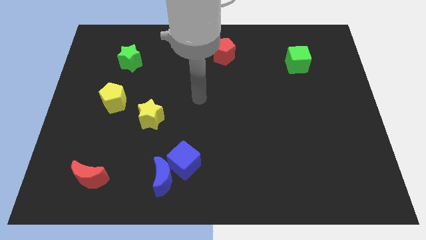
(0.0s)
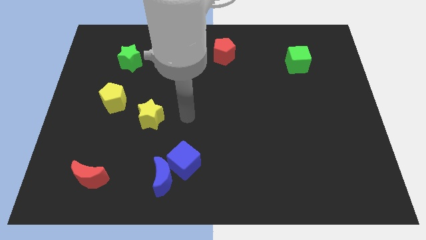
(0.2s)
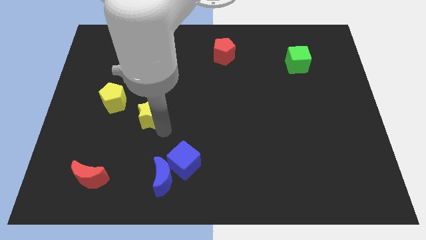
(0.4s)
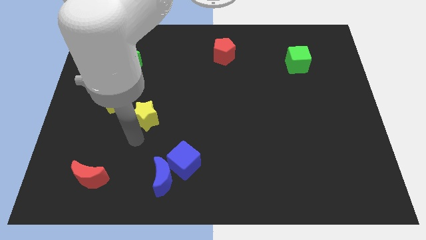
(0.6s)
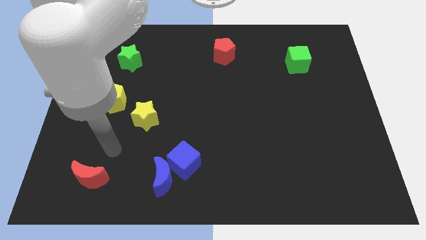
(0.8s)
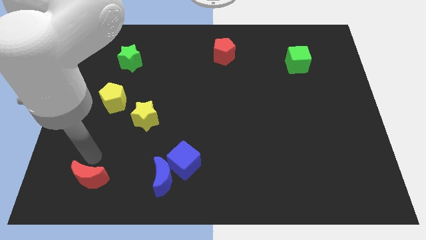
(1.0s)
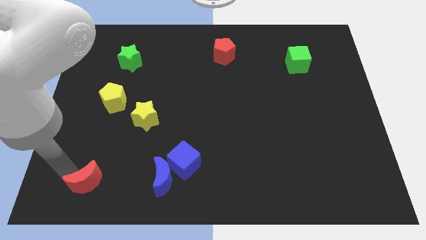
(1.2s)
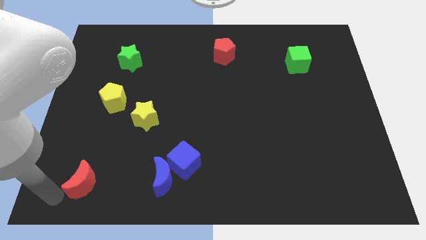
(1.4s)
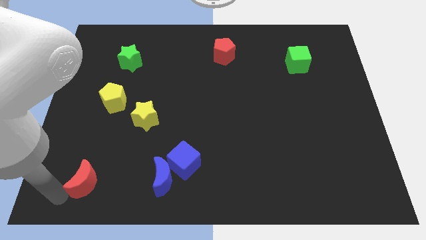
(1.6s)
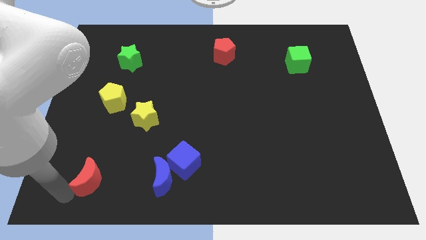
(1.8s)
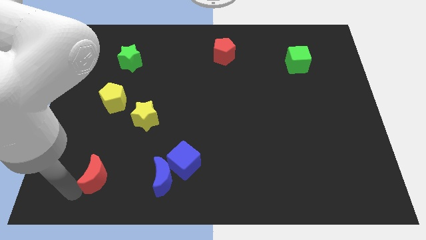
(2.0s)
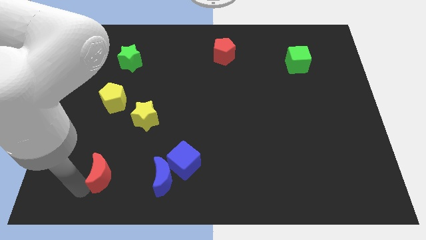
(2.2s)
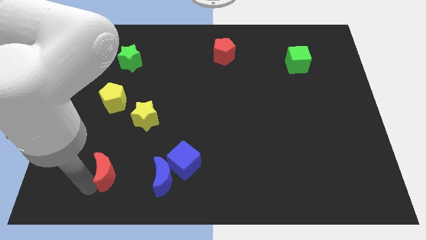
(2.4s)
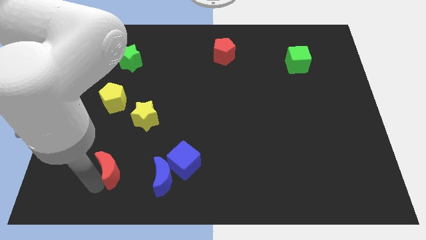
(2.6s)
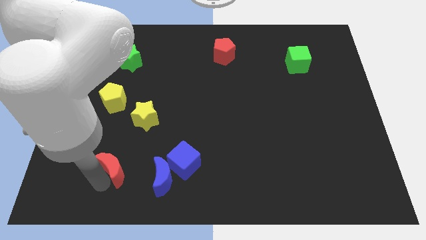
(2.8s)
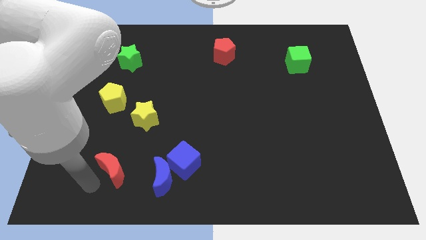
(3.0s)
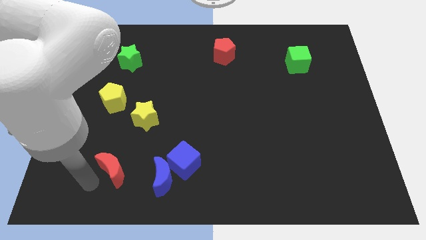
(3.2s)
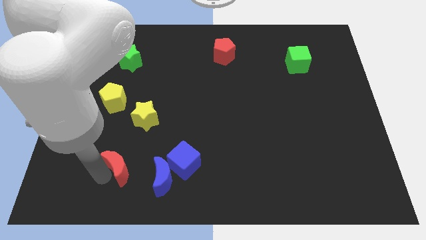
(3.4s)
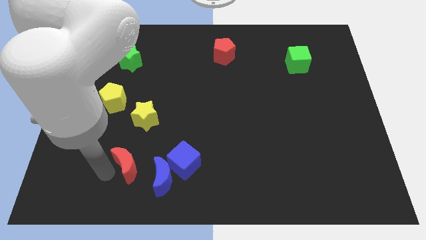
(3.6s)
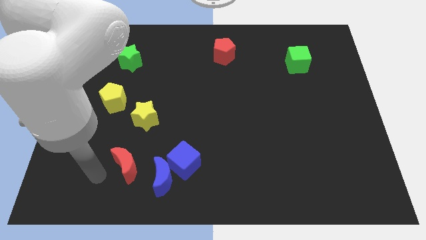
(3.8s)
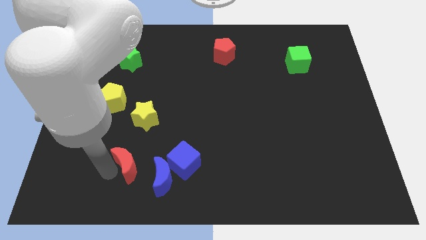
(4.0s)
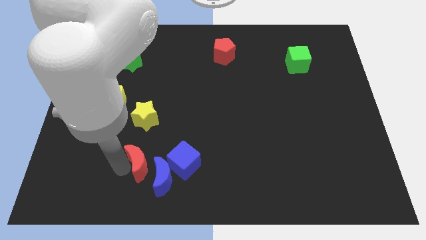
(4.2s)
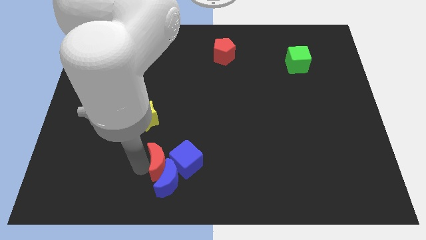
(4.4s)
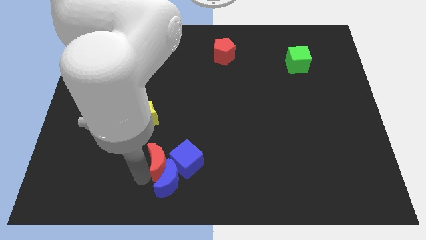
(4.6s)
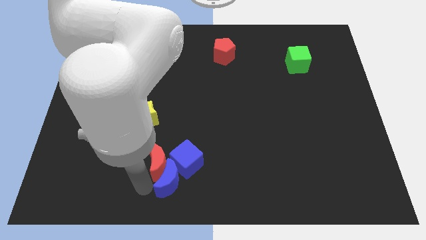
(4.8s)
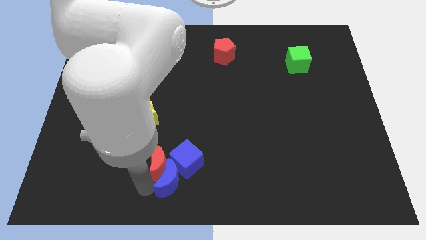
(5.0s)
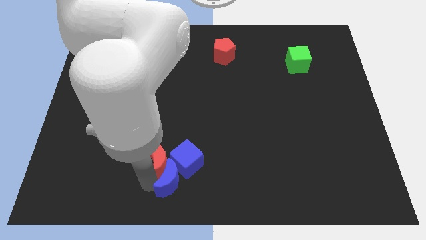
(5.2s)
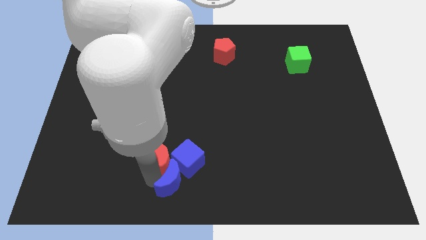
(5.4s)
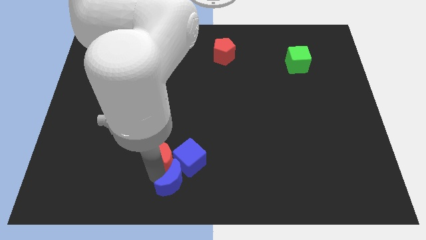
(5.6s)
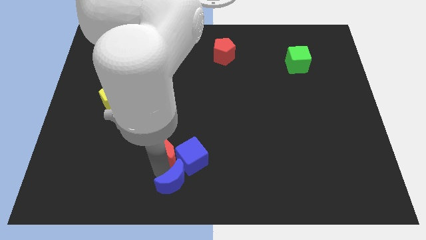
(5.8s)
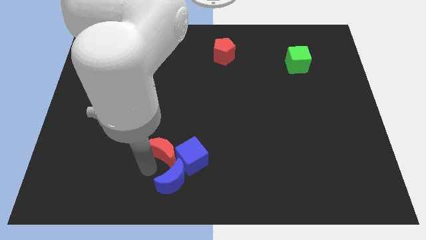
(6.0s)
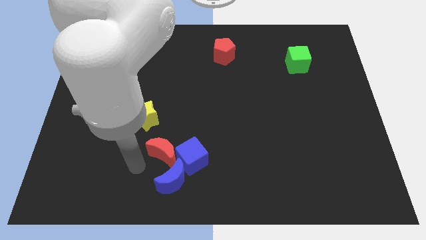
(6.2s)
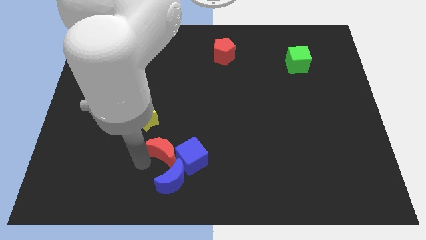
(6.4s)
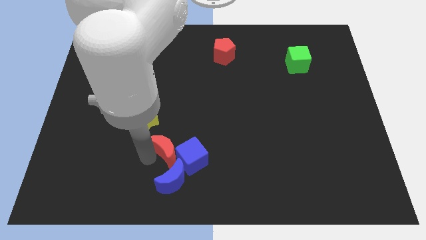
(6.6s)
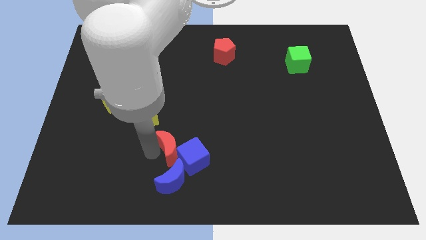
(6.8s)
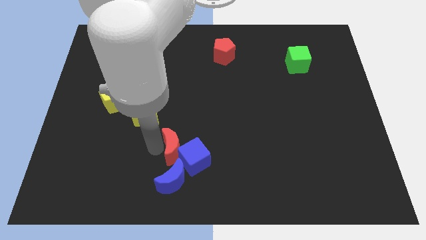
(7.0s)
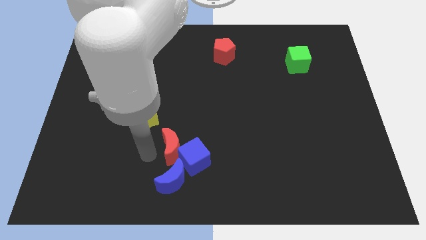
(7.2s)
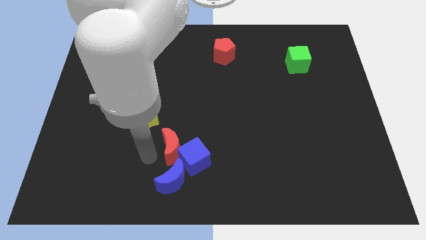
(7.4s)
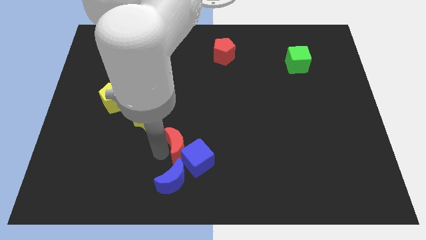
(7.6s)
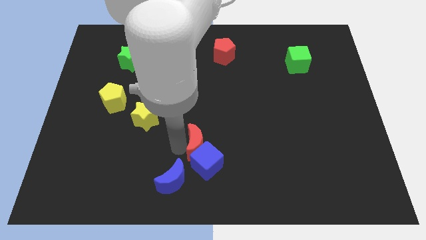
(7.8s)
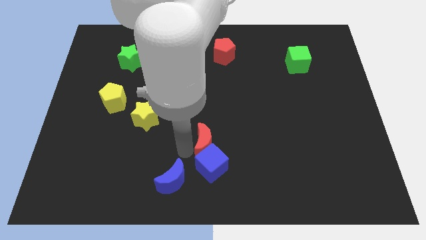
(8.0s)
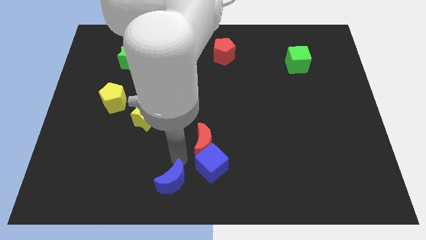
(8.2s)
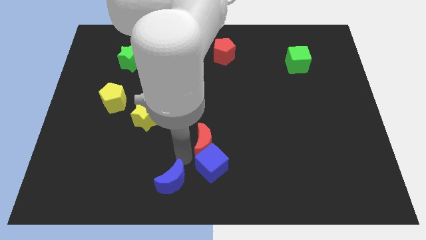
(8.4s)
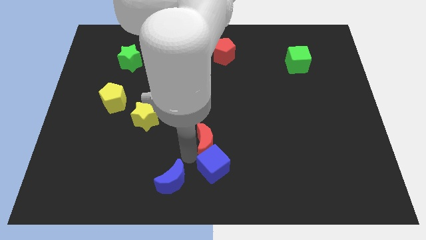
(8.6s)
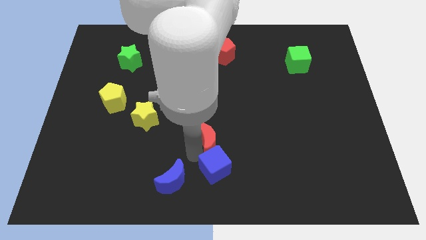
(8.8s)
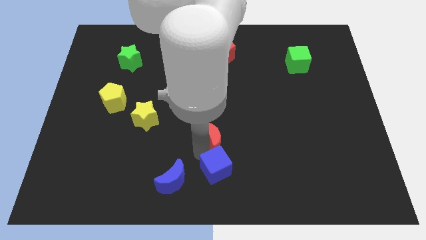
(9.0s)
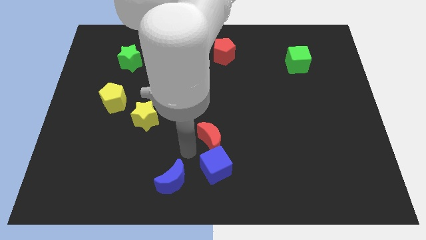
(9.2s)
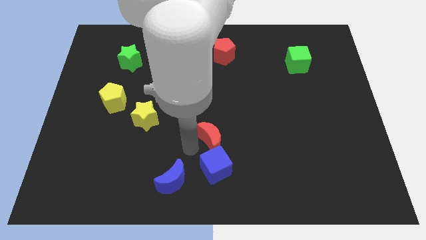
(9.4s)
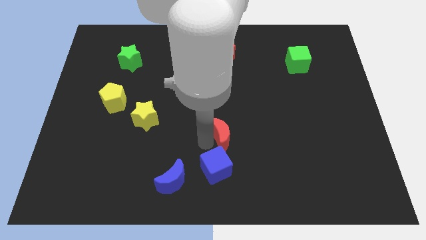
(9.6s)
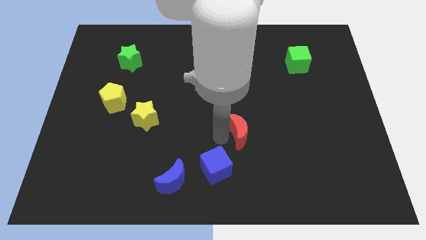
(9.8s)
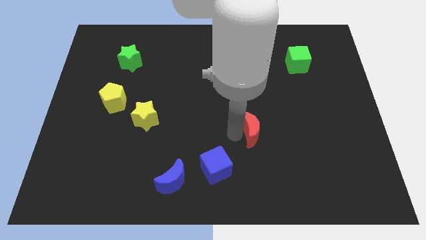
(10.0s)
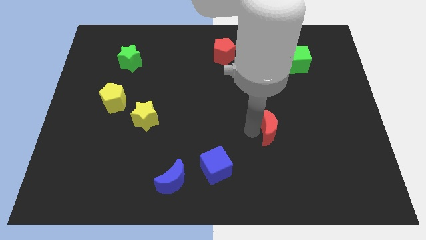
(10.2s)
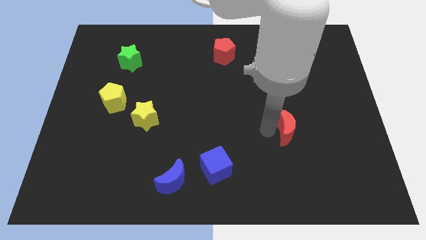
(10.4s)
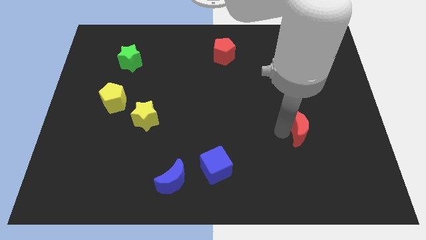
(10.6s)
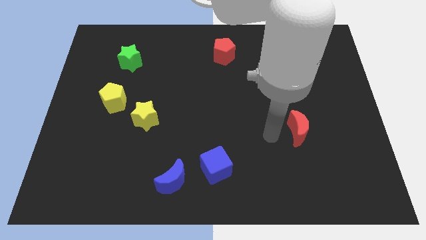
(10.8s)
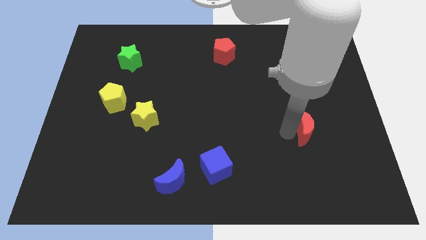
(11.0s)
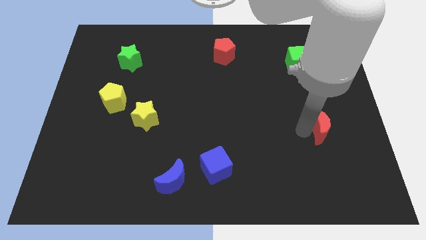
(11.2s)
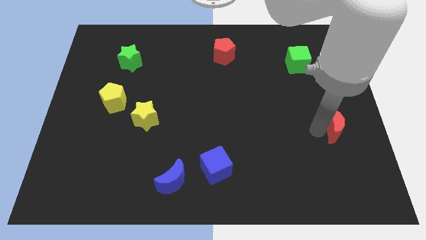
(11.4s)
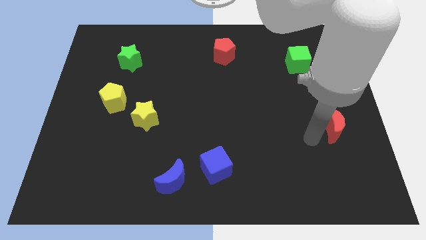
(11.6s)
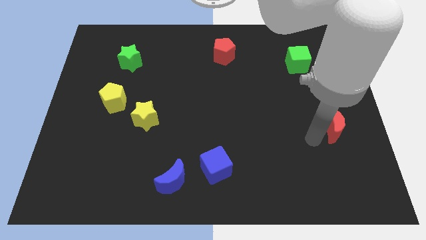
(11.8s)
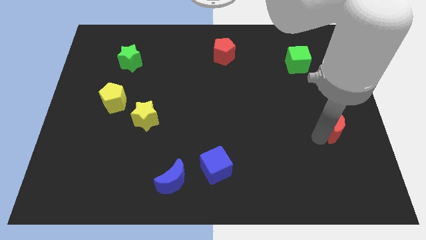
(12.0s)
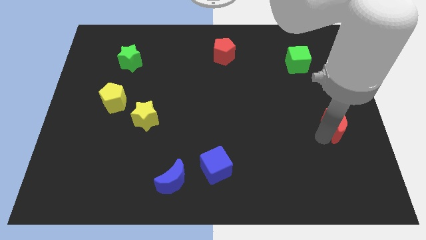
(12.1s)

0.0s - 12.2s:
put the red moon to the right side
